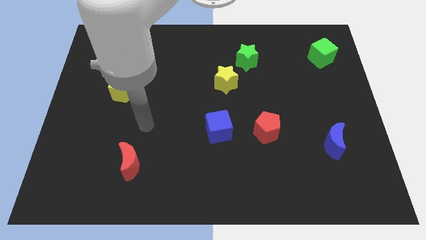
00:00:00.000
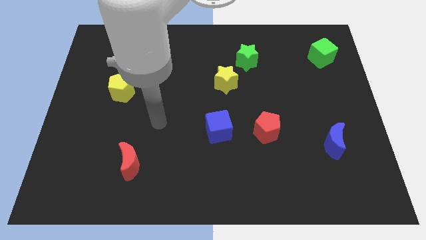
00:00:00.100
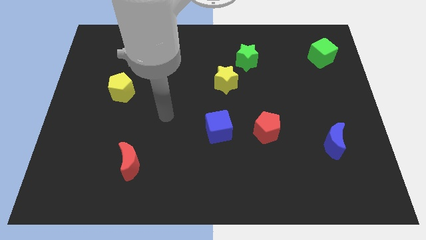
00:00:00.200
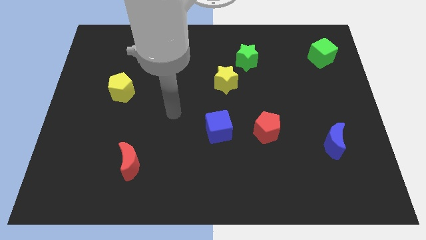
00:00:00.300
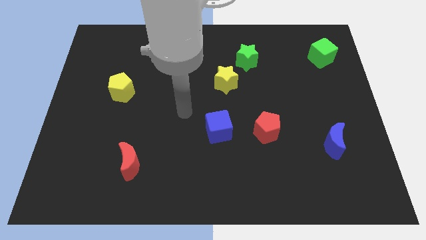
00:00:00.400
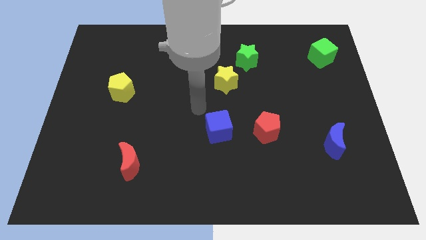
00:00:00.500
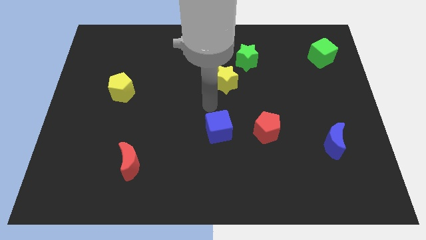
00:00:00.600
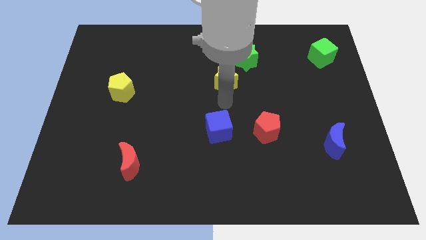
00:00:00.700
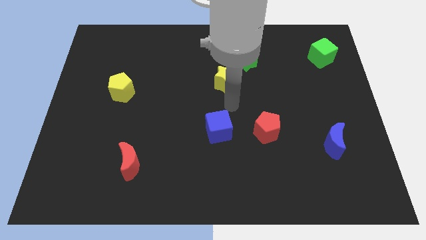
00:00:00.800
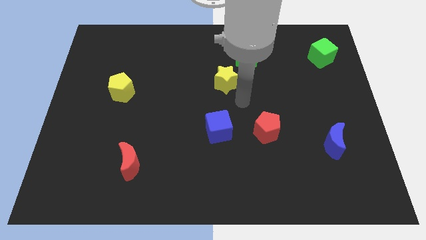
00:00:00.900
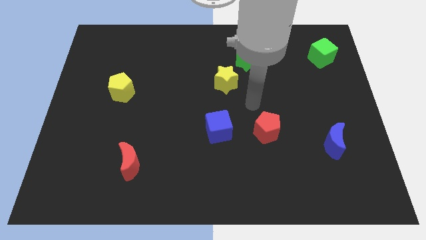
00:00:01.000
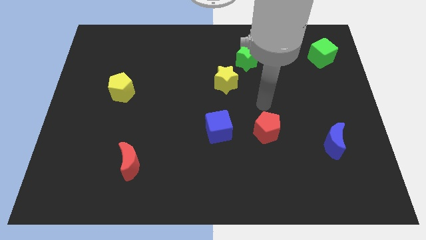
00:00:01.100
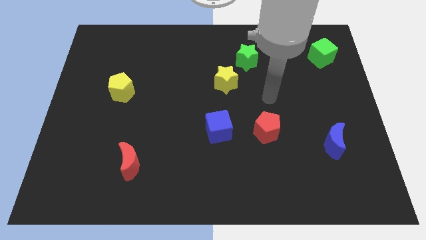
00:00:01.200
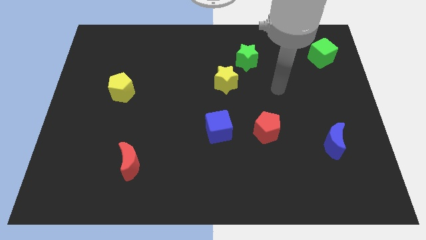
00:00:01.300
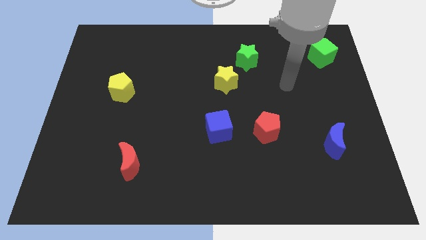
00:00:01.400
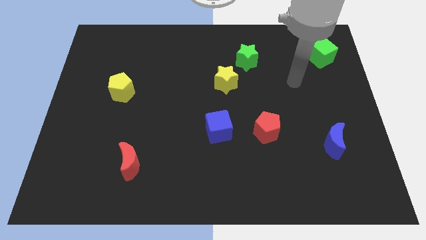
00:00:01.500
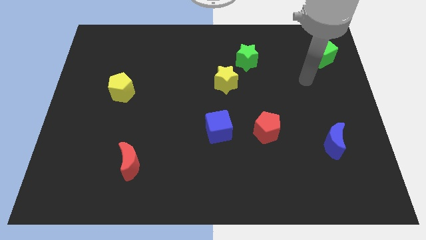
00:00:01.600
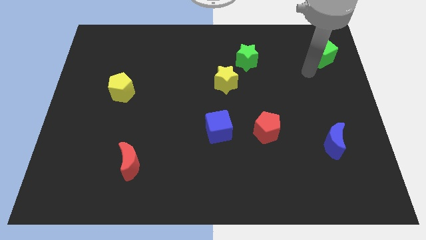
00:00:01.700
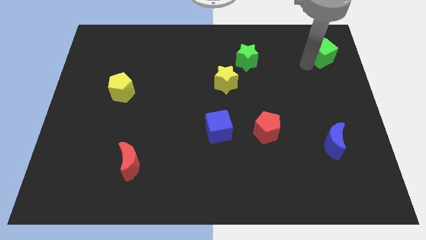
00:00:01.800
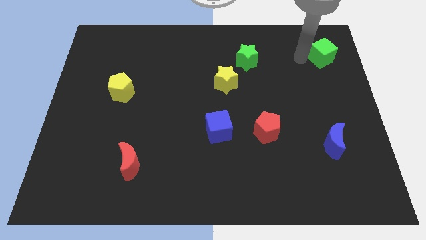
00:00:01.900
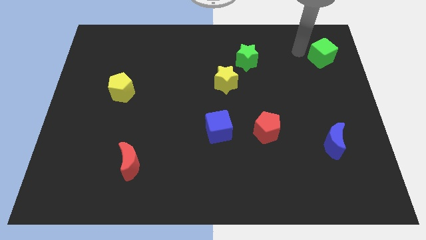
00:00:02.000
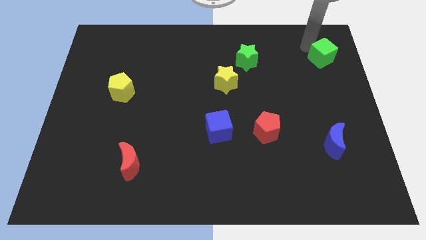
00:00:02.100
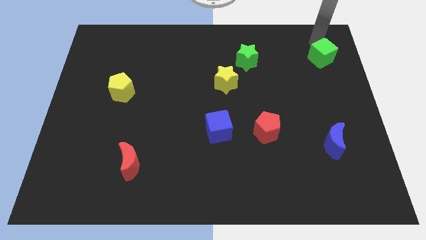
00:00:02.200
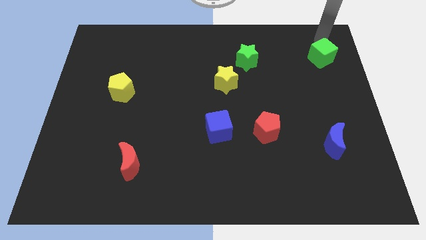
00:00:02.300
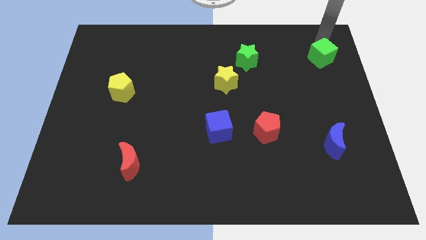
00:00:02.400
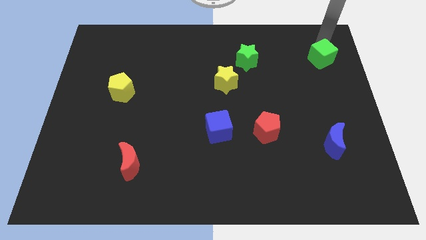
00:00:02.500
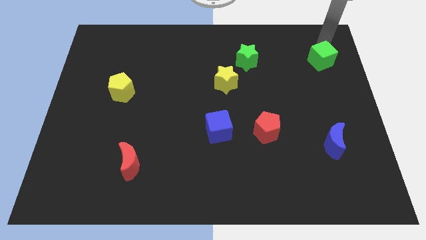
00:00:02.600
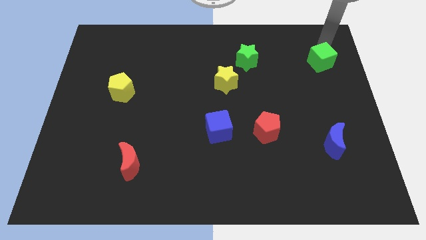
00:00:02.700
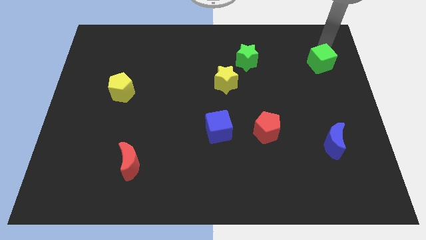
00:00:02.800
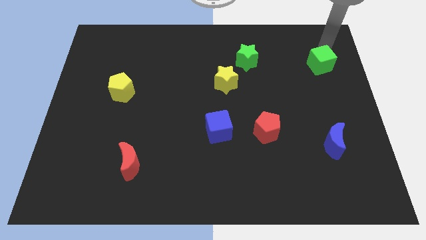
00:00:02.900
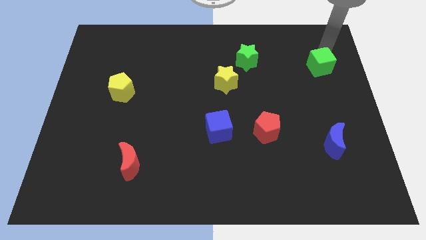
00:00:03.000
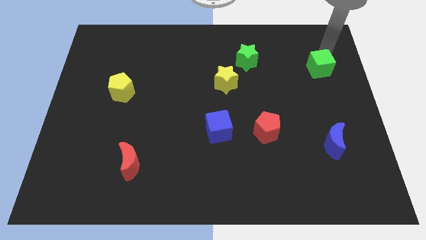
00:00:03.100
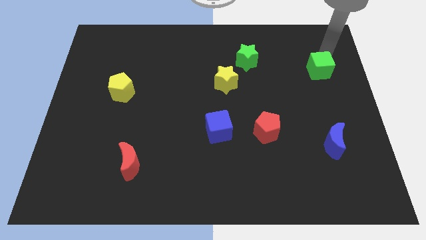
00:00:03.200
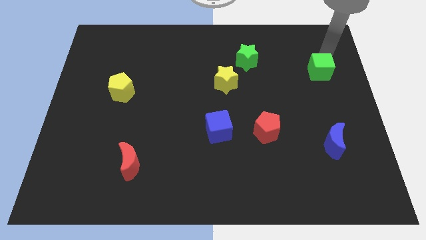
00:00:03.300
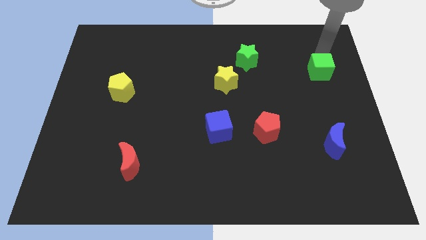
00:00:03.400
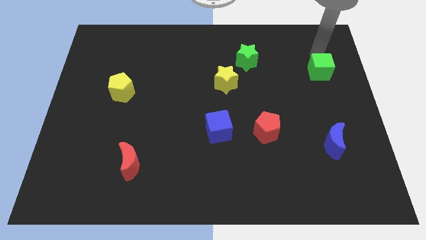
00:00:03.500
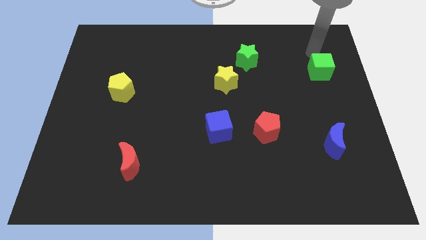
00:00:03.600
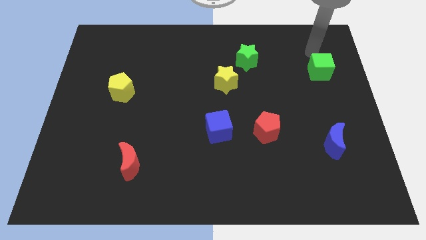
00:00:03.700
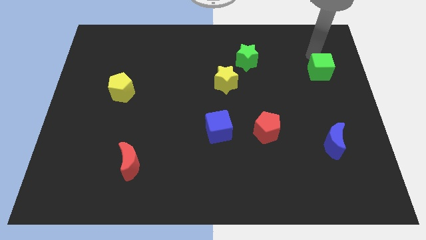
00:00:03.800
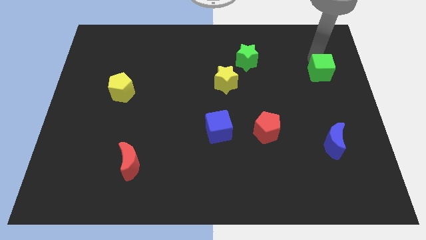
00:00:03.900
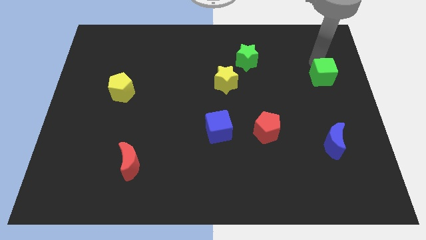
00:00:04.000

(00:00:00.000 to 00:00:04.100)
slightly slide the green cube down

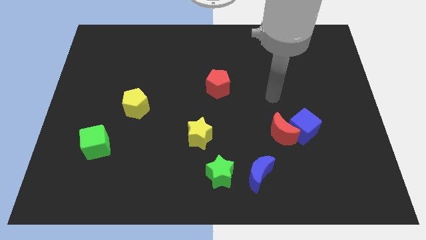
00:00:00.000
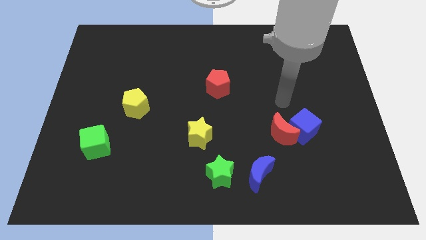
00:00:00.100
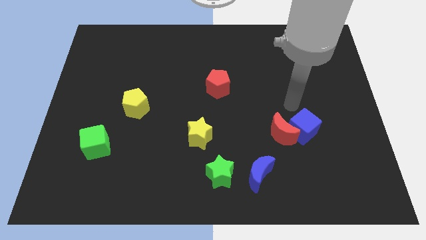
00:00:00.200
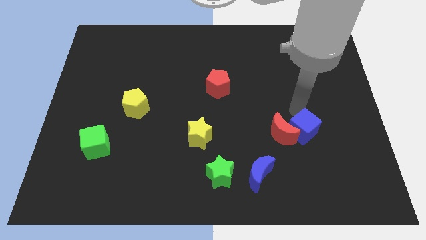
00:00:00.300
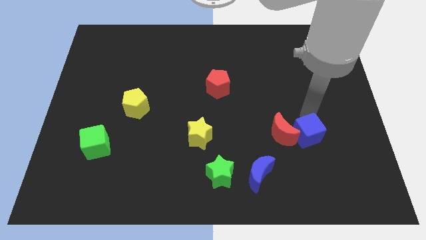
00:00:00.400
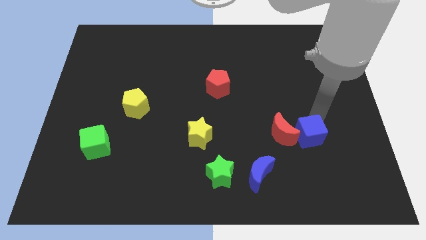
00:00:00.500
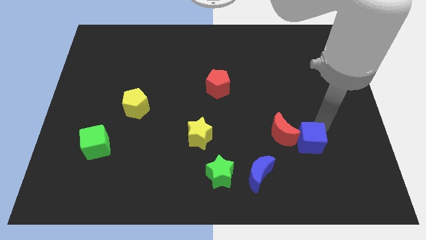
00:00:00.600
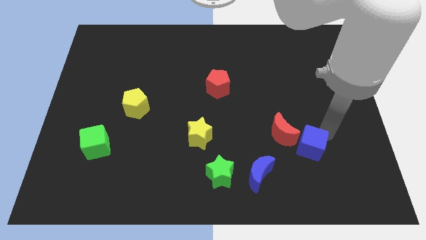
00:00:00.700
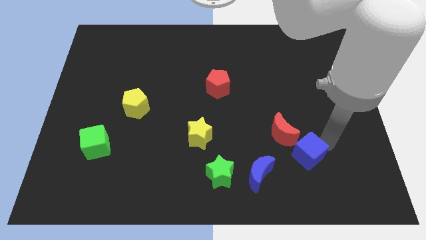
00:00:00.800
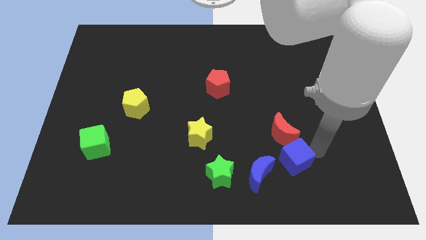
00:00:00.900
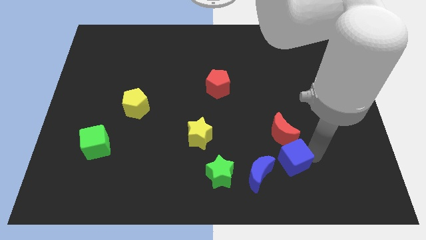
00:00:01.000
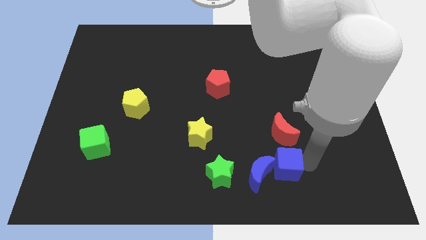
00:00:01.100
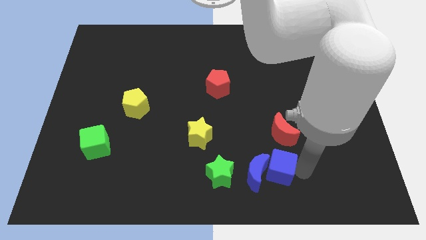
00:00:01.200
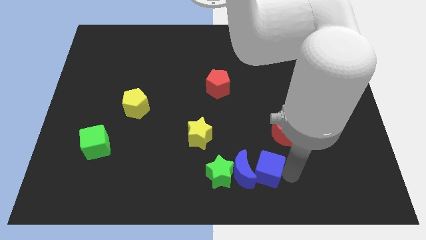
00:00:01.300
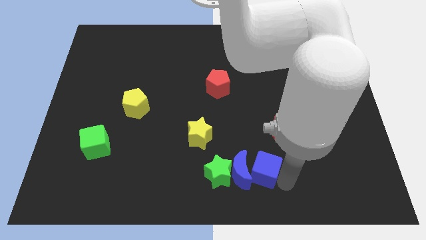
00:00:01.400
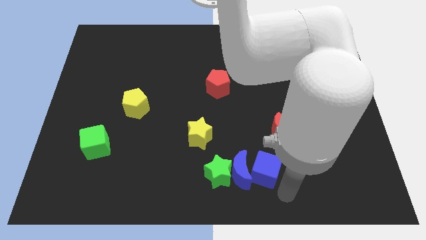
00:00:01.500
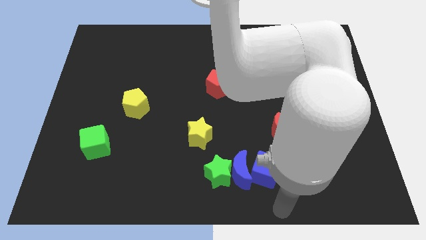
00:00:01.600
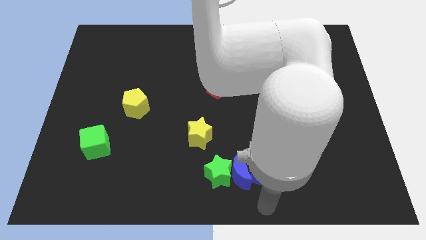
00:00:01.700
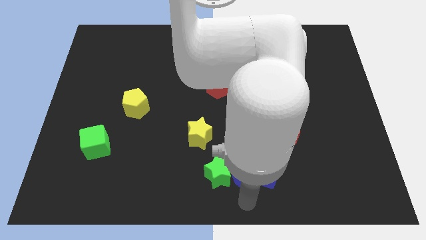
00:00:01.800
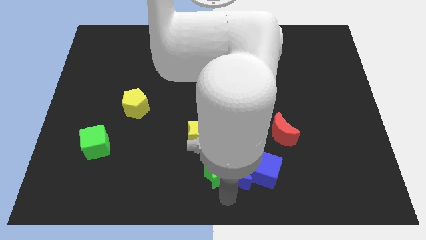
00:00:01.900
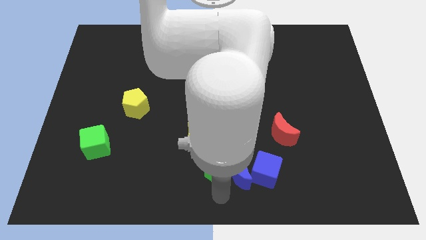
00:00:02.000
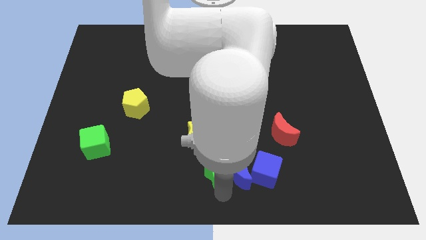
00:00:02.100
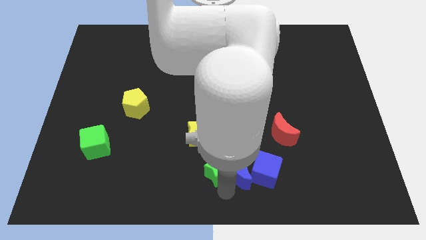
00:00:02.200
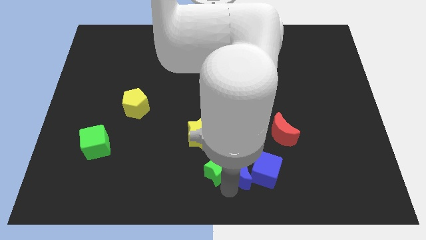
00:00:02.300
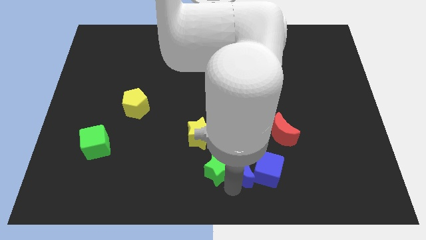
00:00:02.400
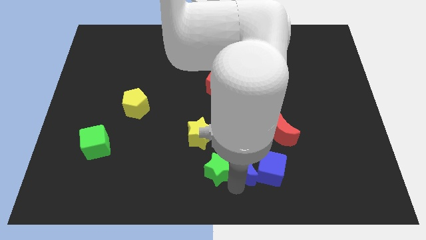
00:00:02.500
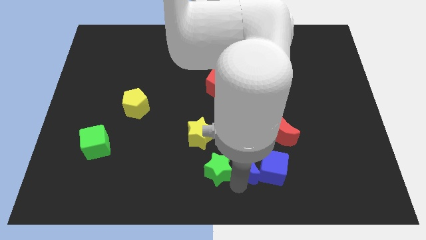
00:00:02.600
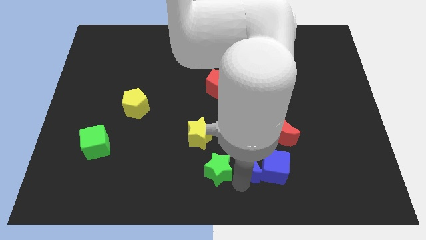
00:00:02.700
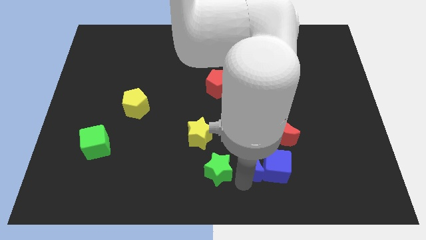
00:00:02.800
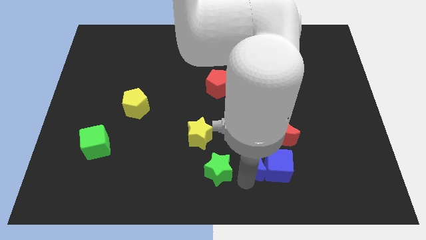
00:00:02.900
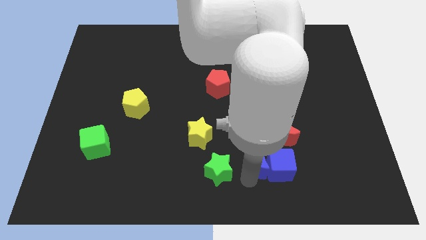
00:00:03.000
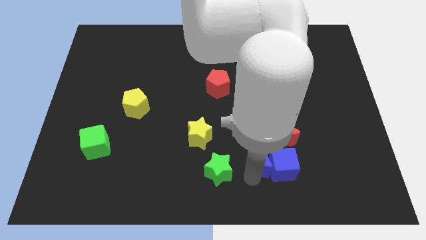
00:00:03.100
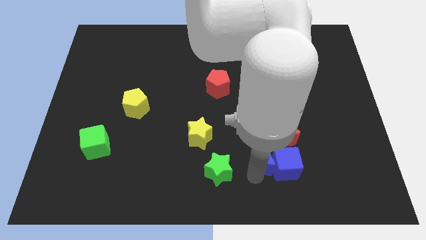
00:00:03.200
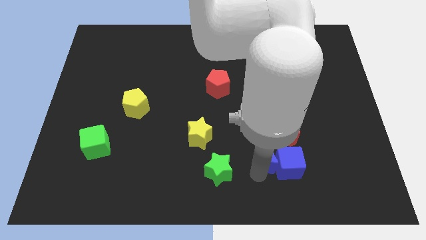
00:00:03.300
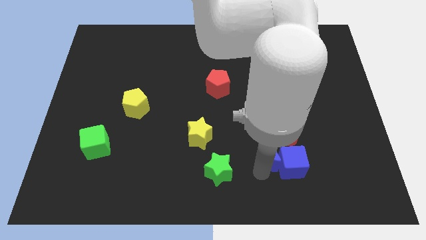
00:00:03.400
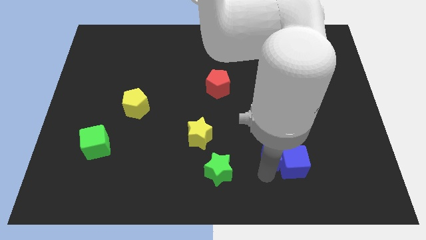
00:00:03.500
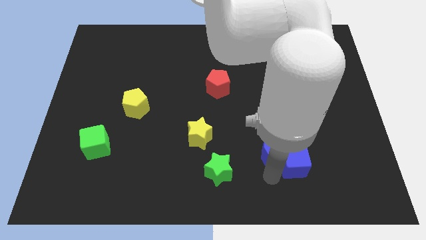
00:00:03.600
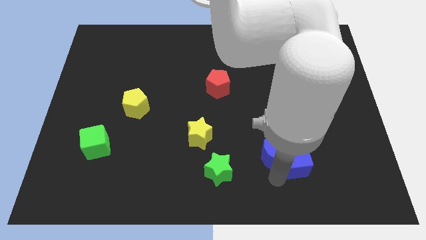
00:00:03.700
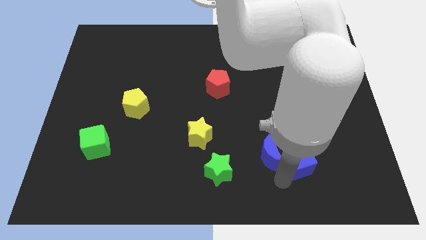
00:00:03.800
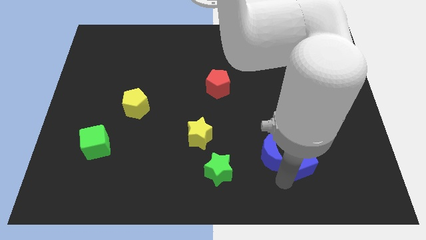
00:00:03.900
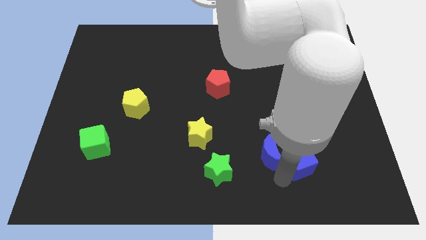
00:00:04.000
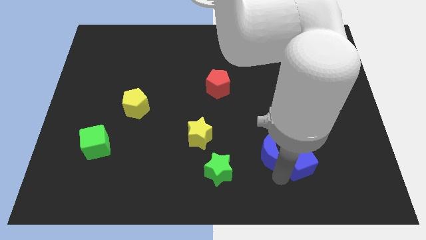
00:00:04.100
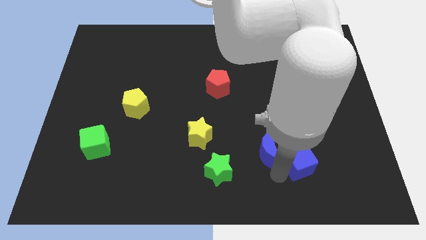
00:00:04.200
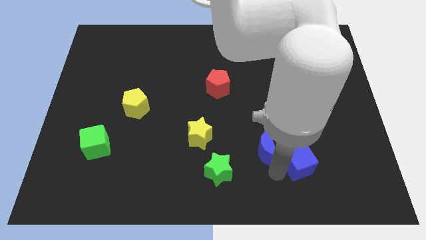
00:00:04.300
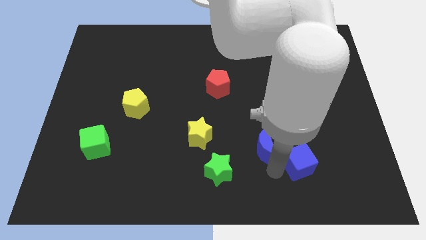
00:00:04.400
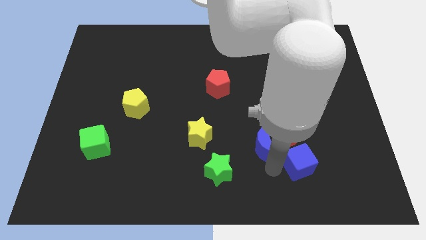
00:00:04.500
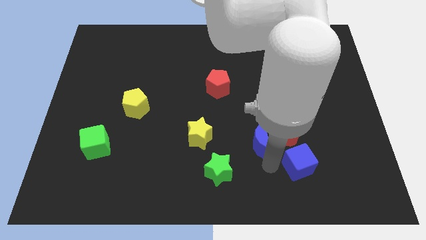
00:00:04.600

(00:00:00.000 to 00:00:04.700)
slightly push the blue moon up
